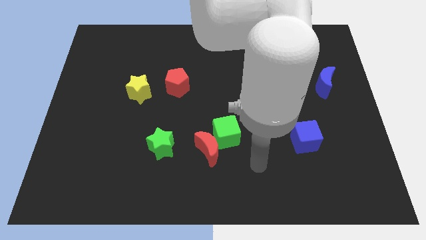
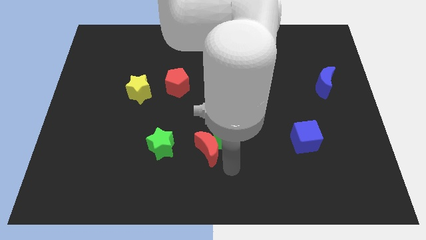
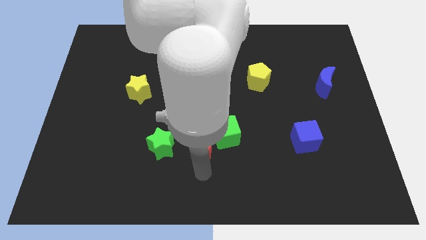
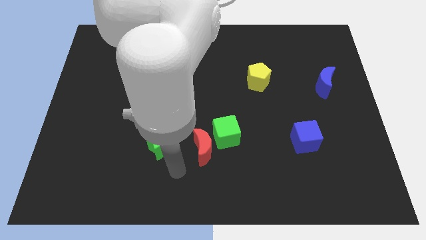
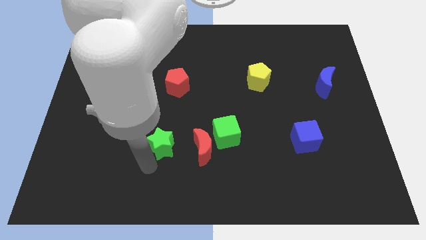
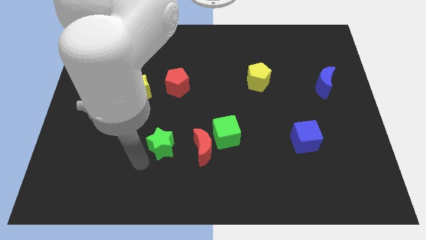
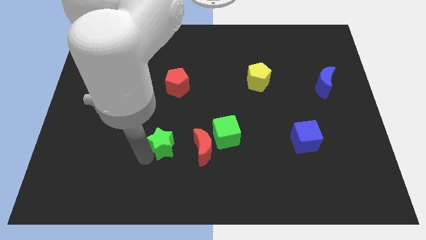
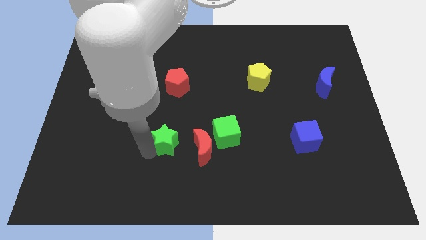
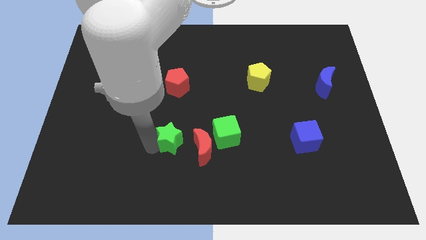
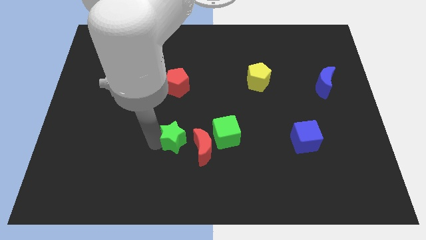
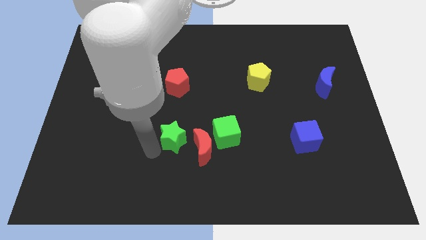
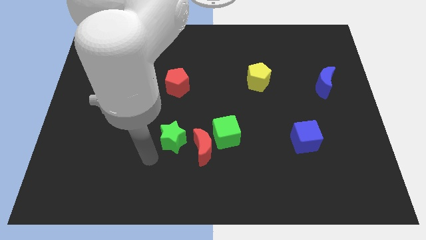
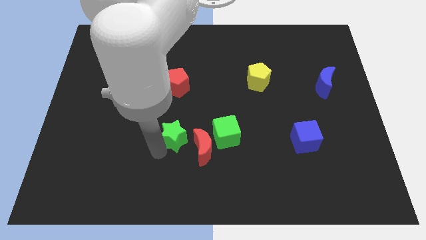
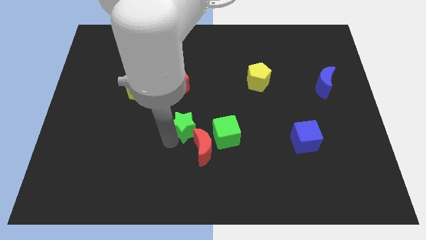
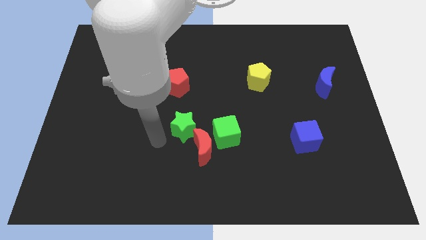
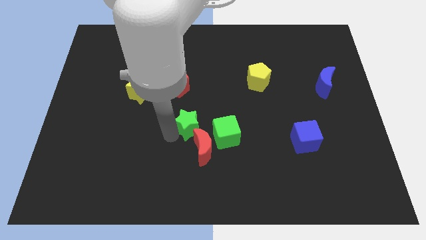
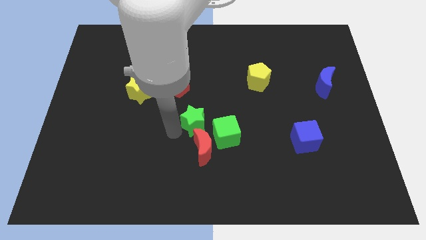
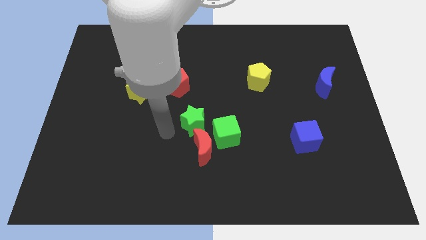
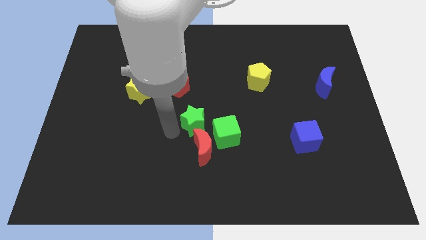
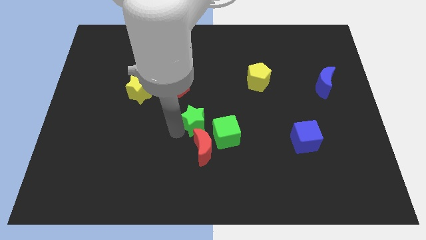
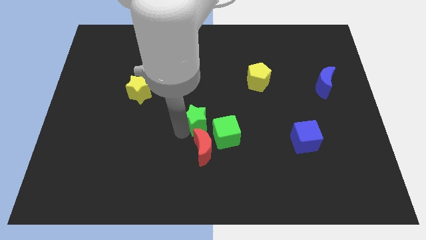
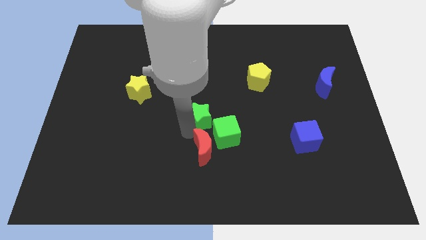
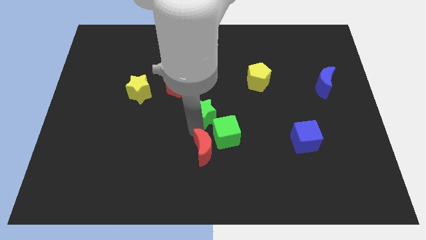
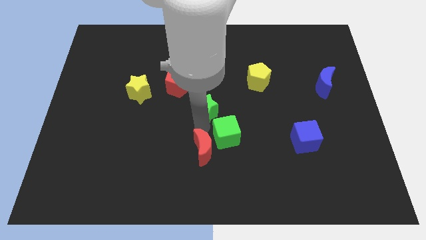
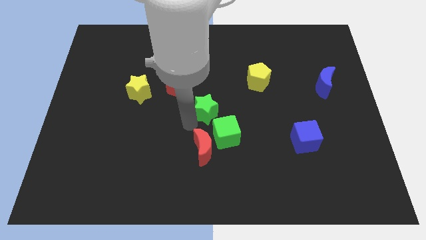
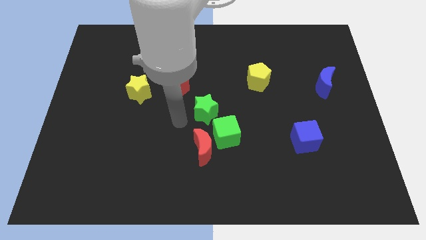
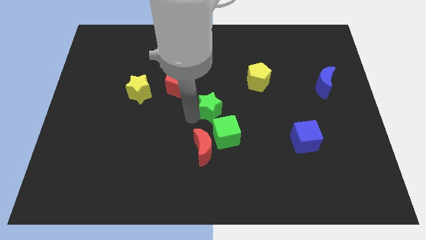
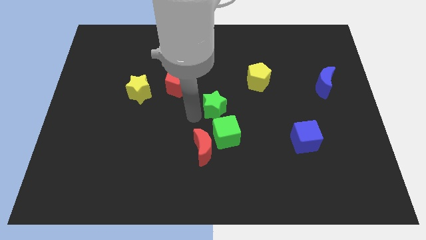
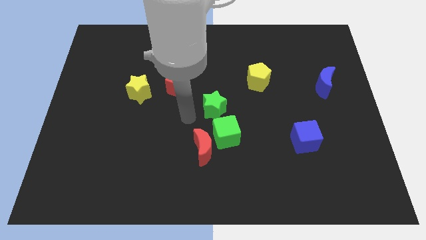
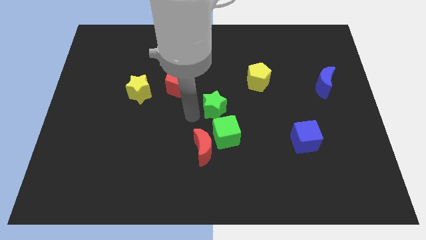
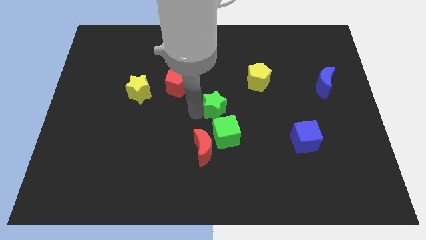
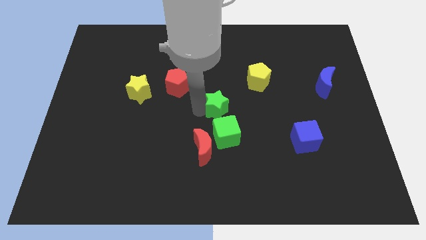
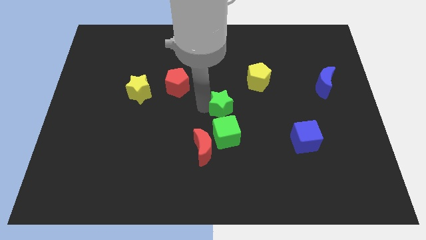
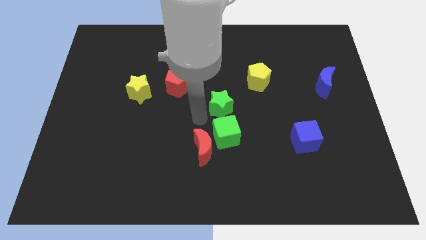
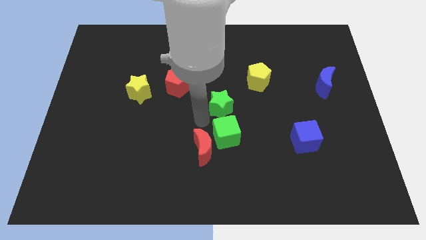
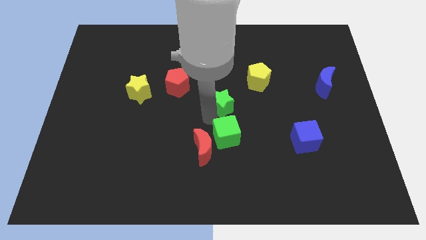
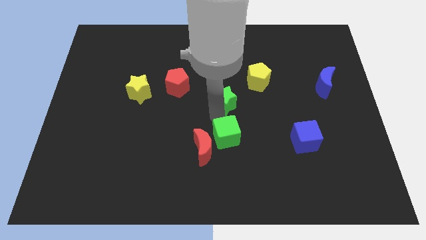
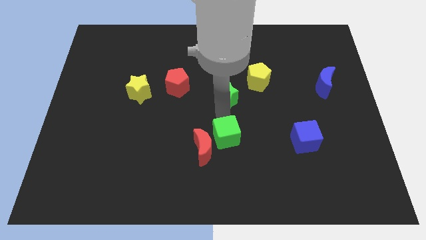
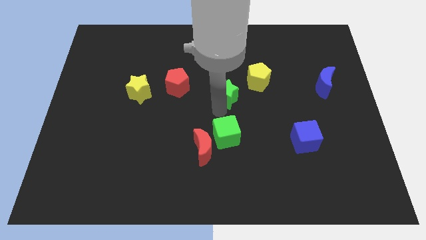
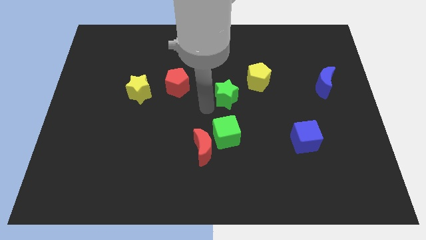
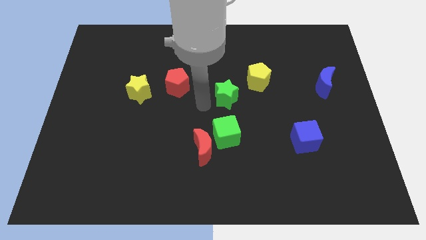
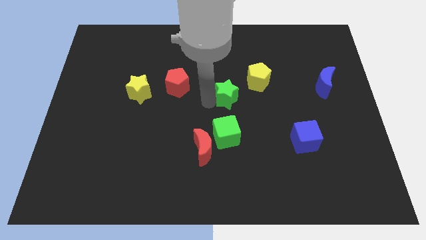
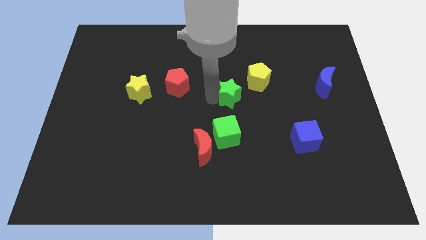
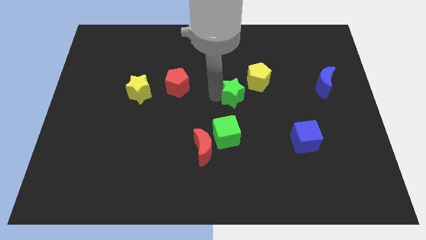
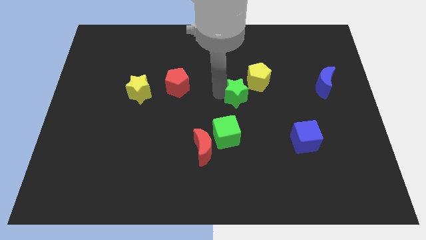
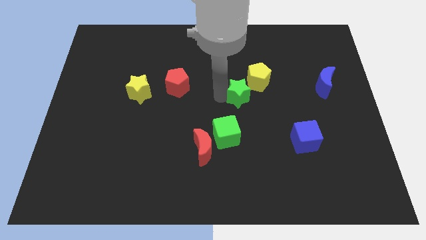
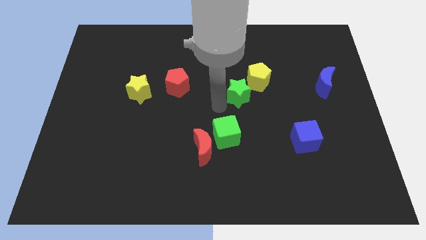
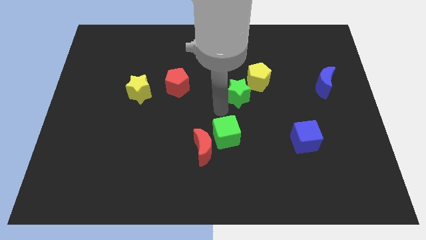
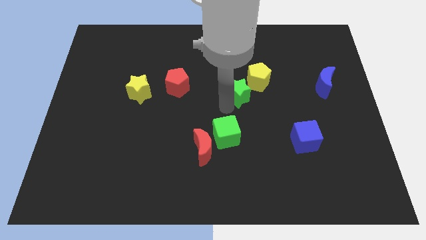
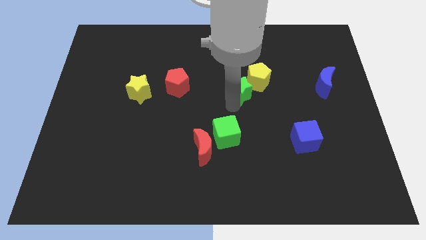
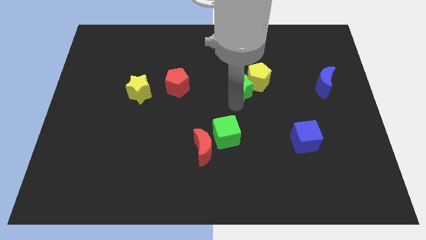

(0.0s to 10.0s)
slide the green star towards the yellow pentagon

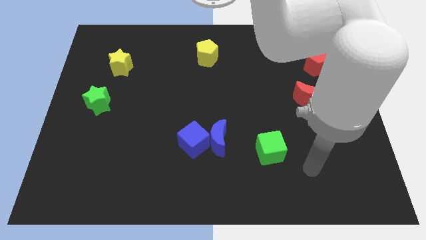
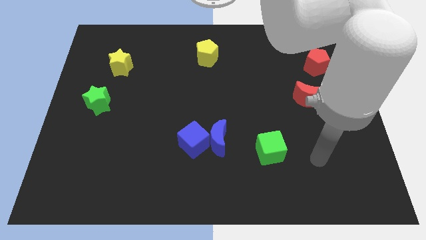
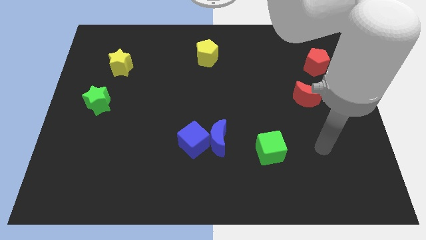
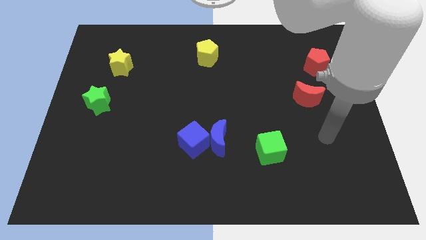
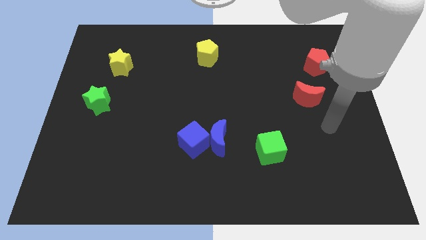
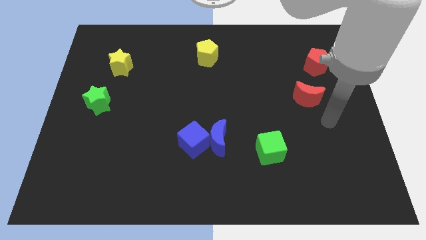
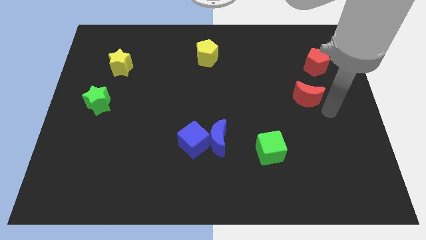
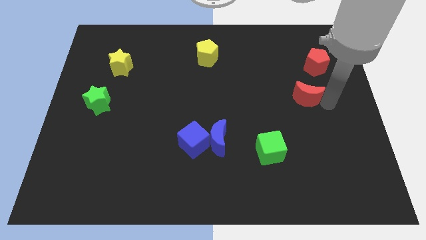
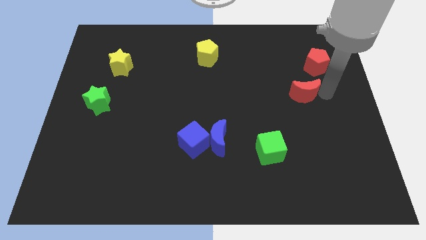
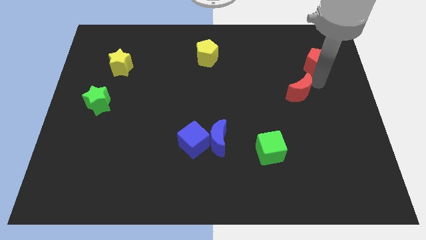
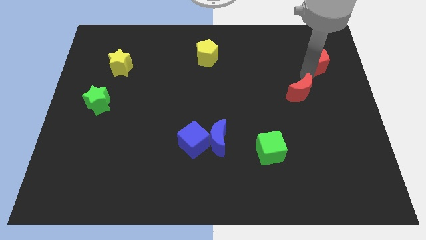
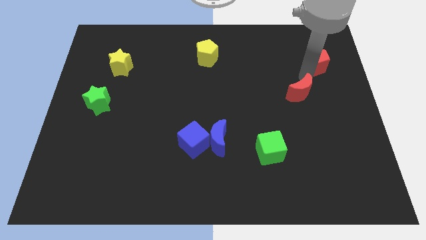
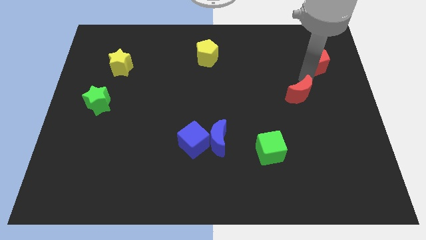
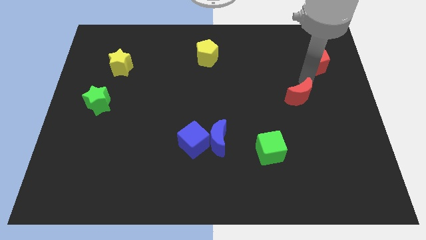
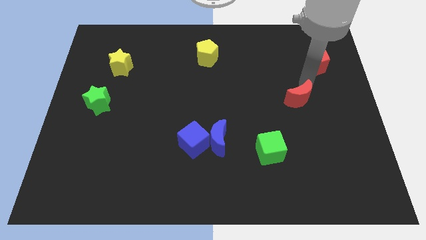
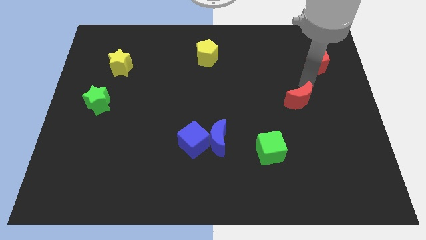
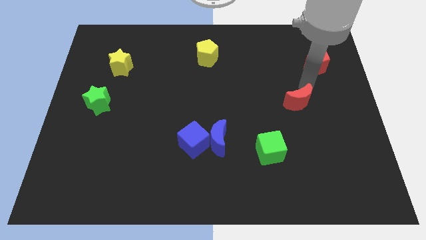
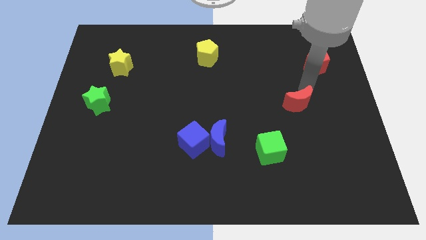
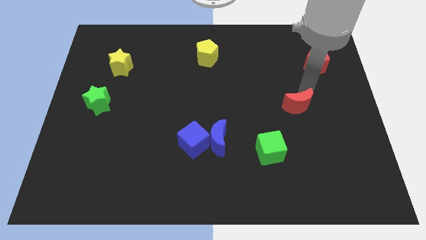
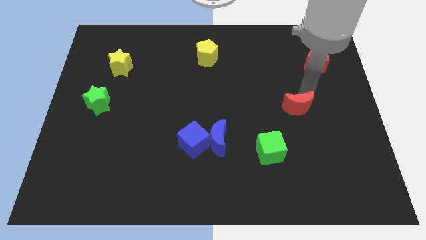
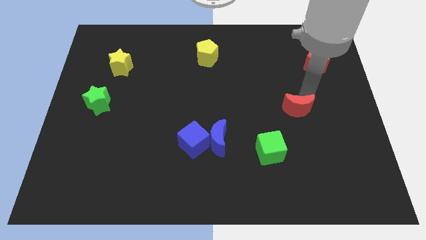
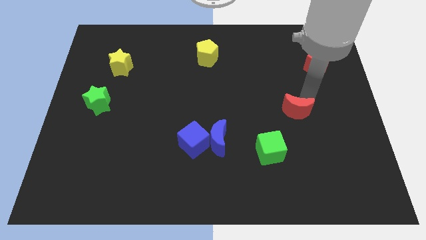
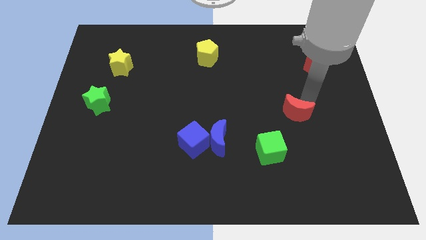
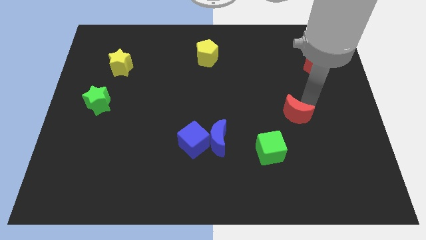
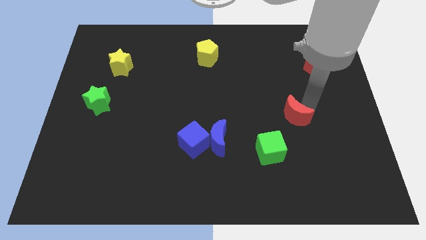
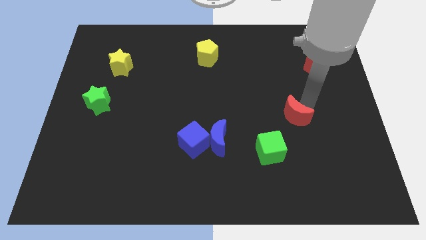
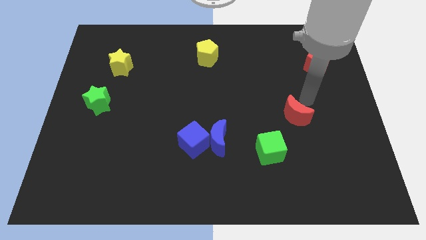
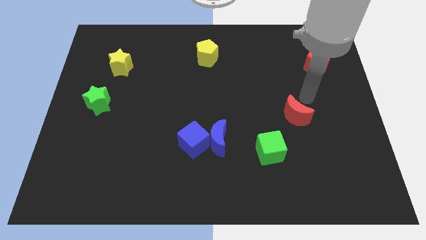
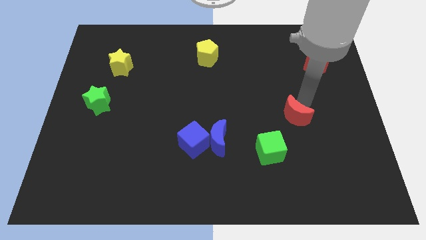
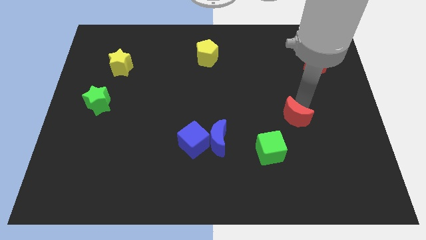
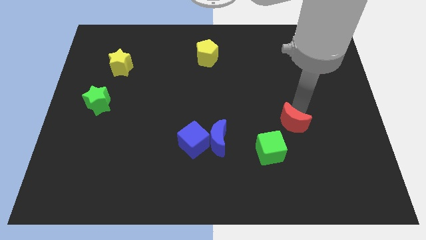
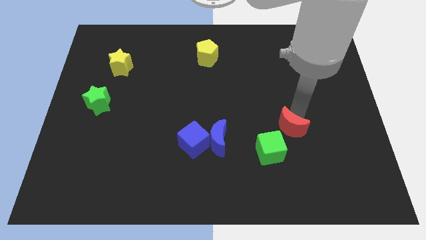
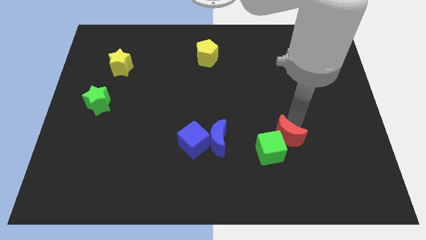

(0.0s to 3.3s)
move the red moon towards the green cube
